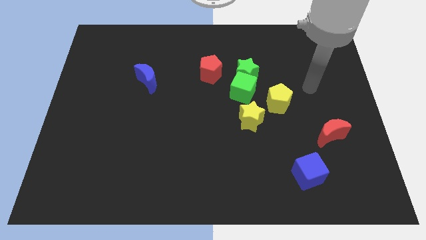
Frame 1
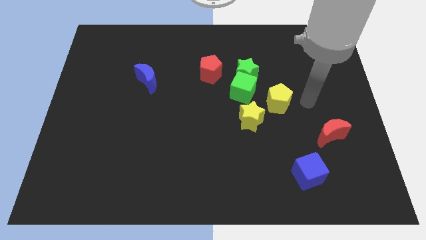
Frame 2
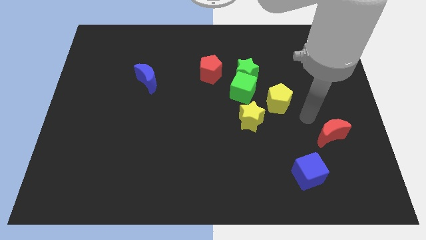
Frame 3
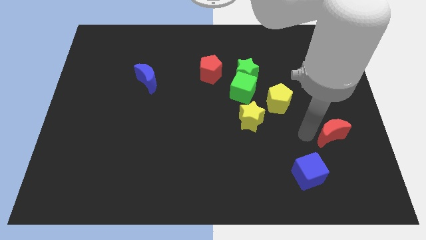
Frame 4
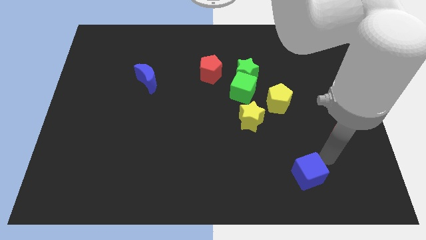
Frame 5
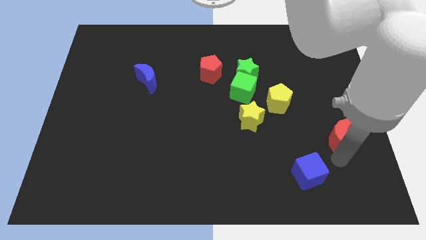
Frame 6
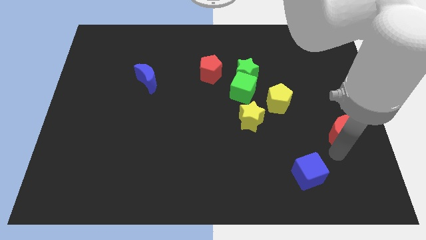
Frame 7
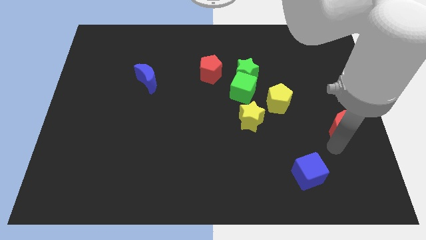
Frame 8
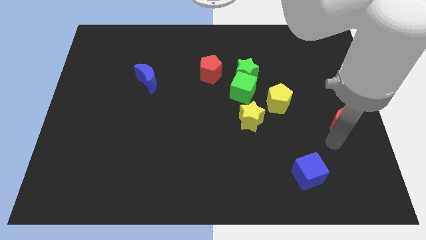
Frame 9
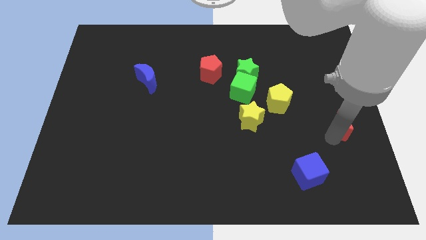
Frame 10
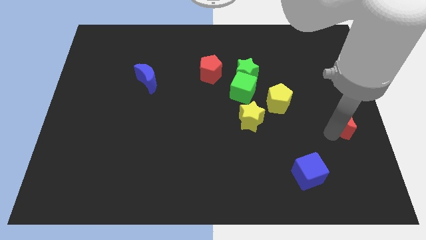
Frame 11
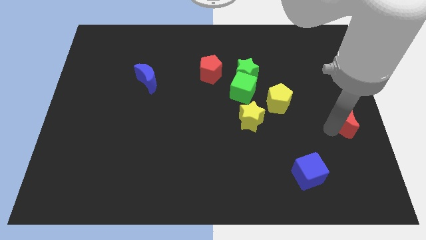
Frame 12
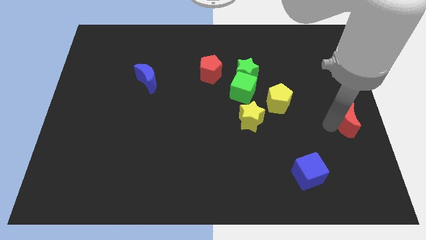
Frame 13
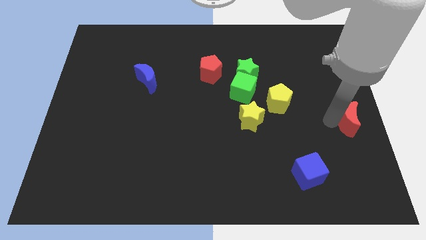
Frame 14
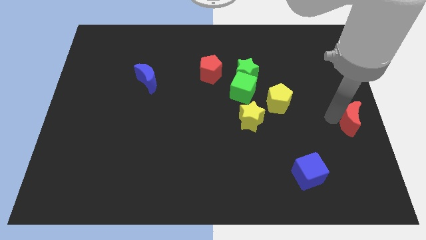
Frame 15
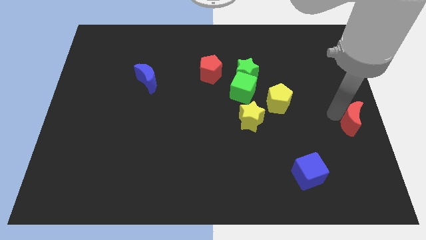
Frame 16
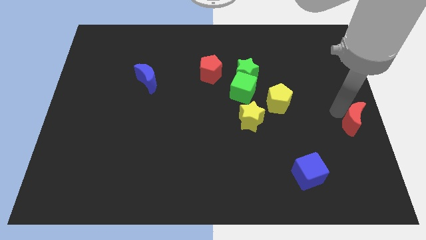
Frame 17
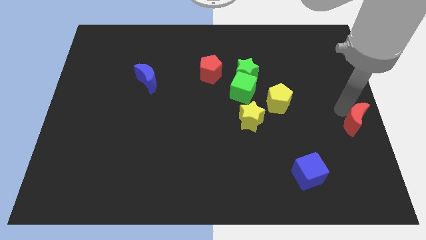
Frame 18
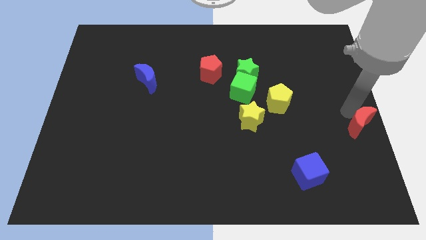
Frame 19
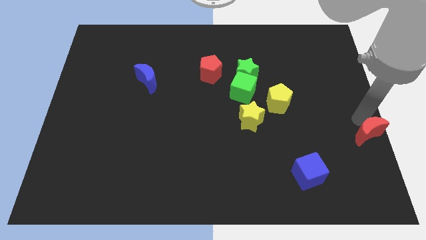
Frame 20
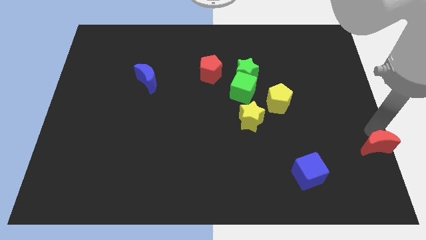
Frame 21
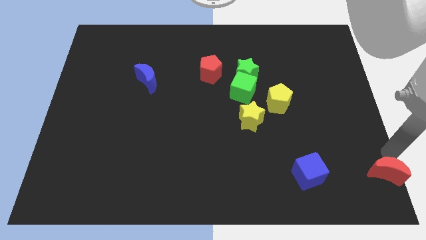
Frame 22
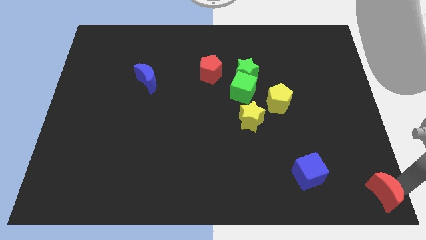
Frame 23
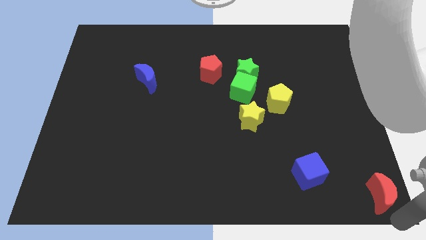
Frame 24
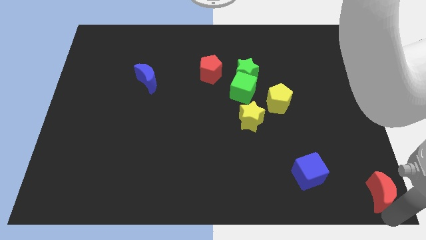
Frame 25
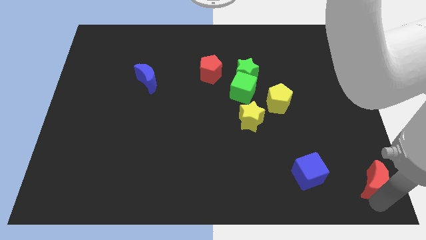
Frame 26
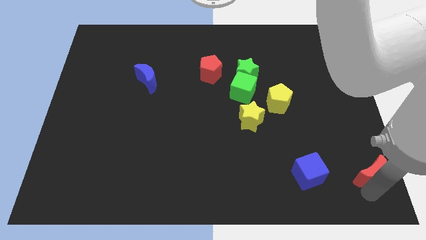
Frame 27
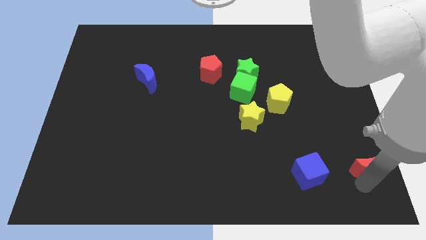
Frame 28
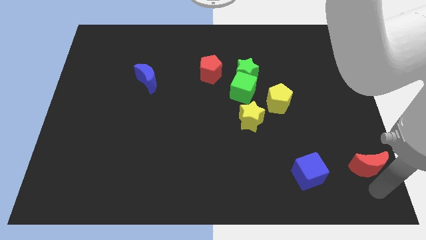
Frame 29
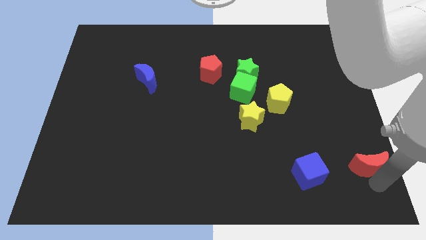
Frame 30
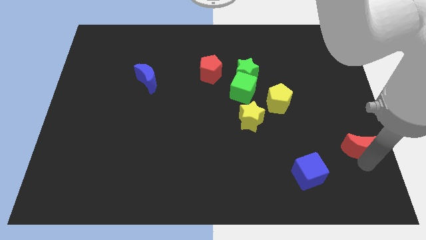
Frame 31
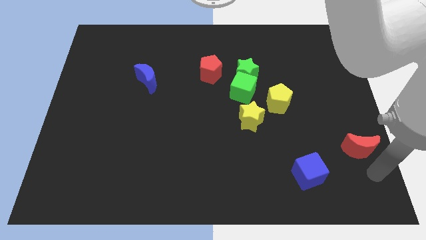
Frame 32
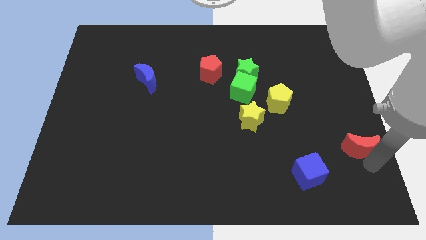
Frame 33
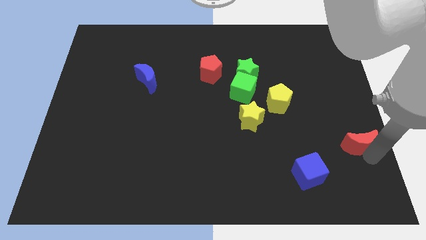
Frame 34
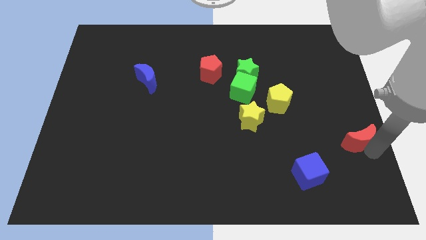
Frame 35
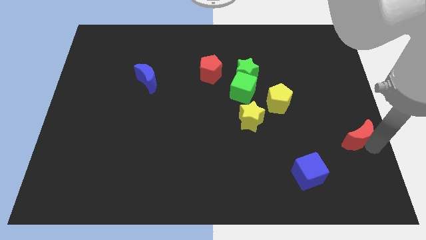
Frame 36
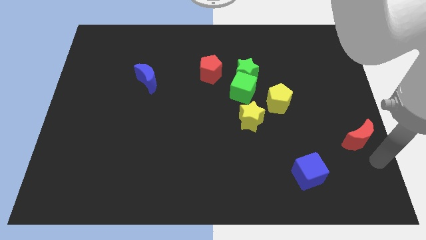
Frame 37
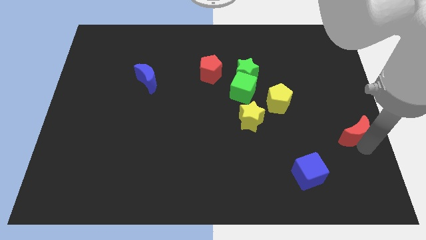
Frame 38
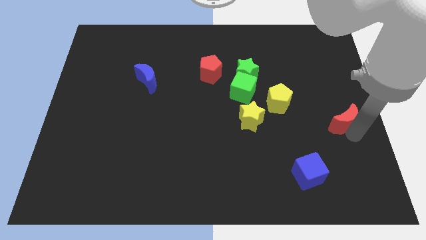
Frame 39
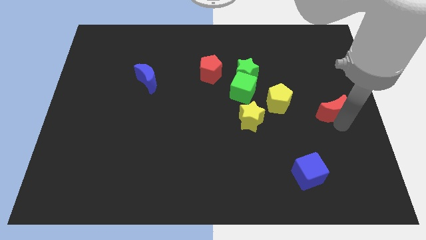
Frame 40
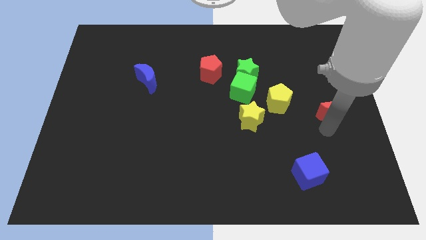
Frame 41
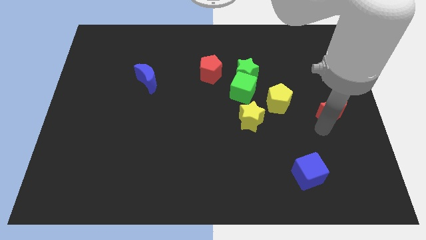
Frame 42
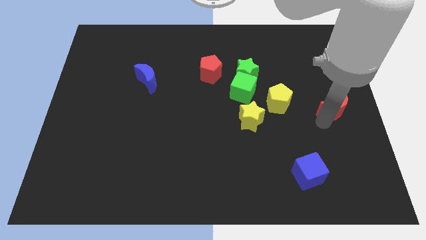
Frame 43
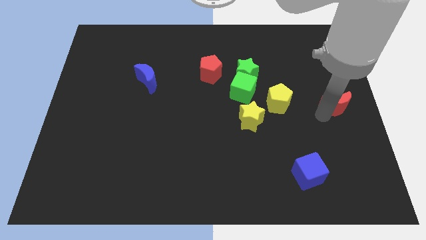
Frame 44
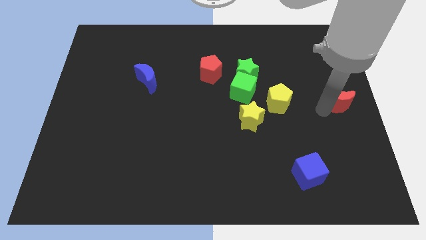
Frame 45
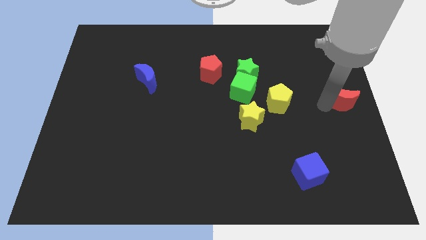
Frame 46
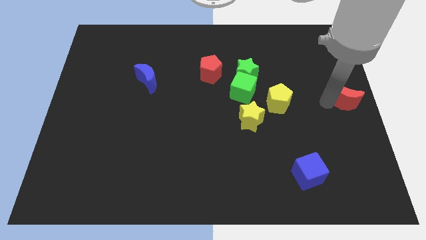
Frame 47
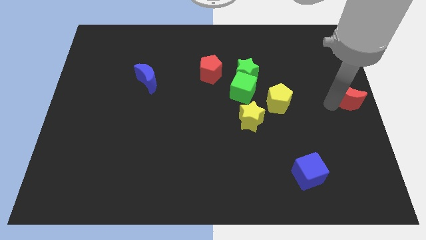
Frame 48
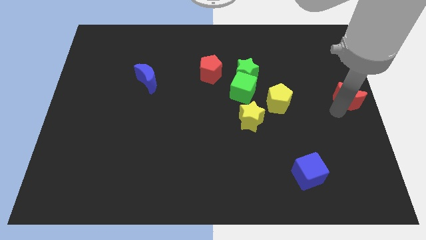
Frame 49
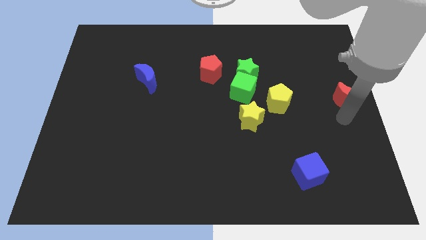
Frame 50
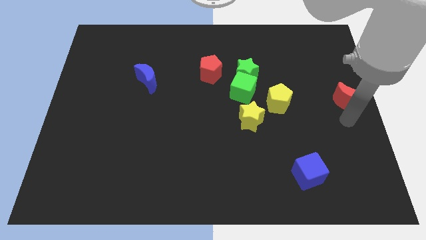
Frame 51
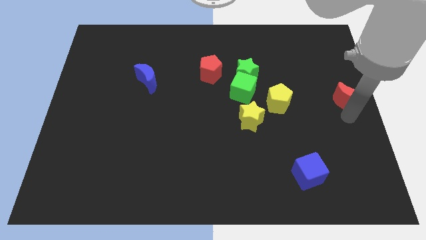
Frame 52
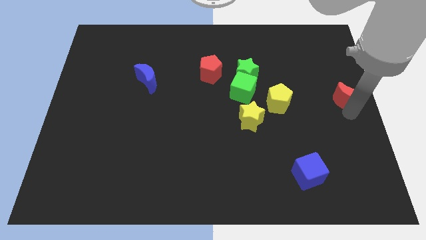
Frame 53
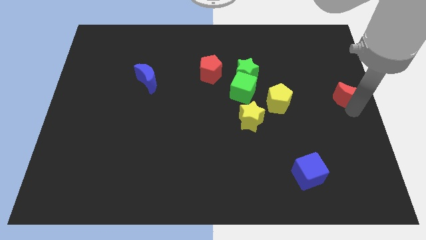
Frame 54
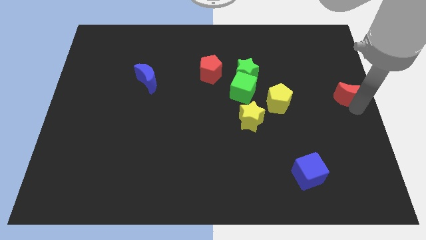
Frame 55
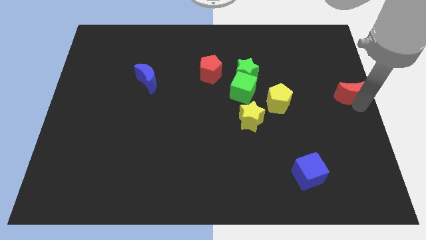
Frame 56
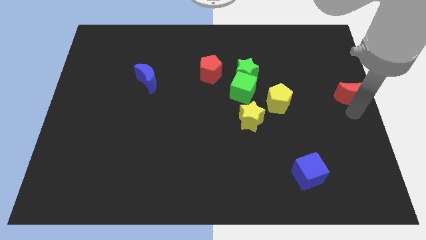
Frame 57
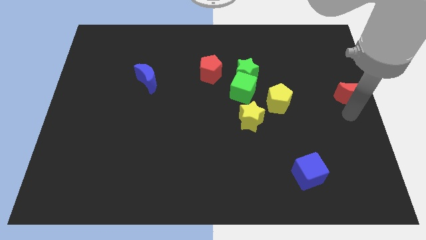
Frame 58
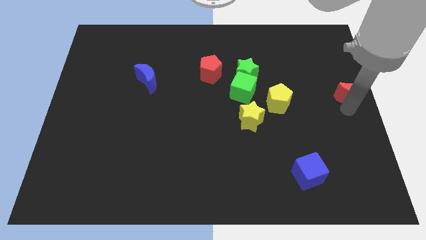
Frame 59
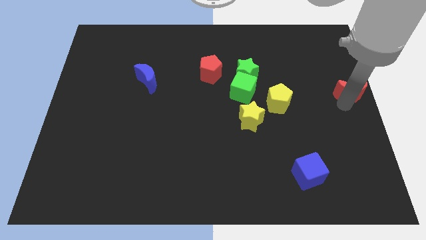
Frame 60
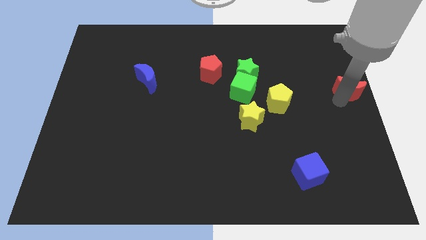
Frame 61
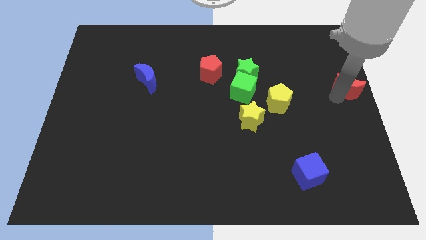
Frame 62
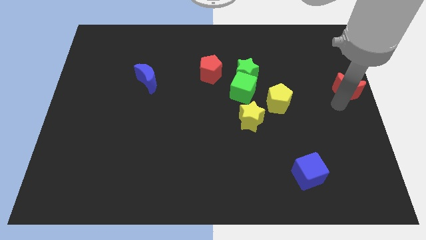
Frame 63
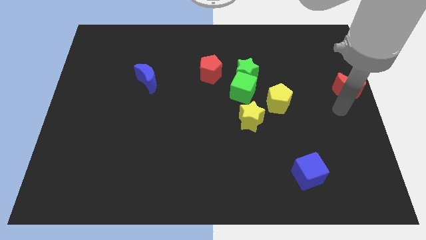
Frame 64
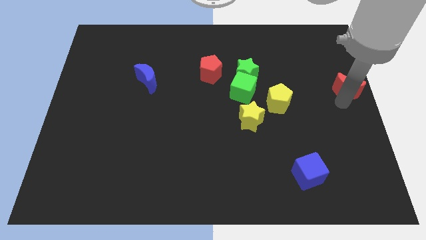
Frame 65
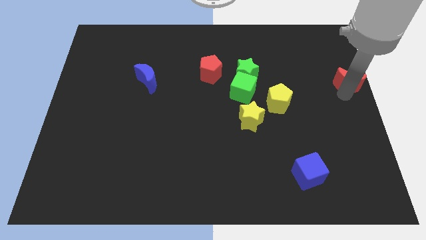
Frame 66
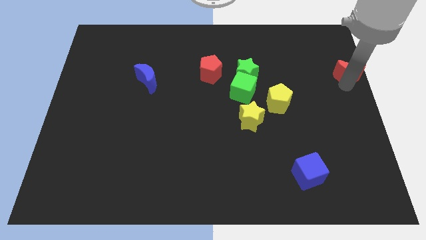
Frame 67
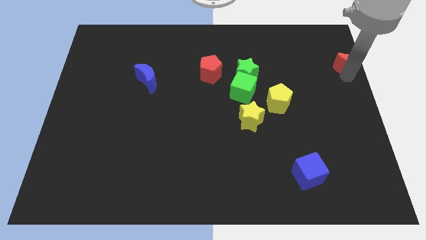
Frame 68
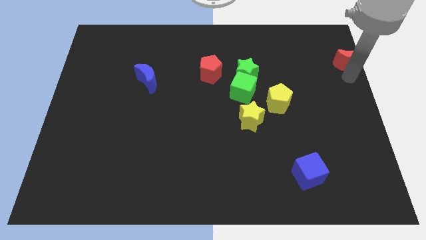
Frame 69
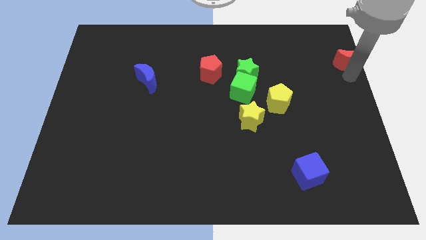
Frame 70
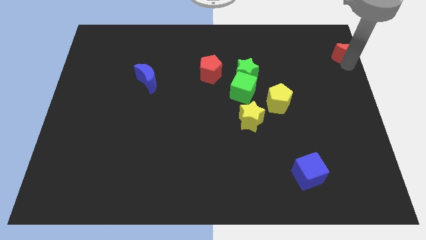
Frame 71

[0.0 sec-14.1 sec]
put the red moon to the top right corner
